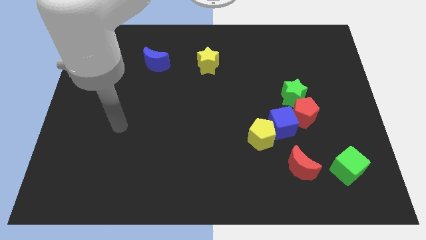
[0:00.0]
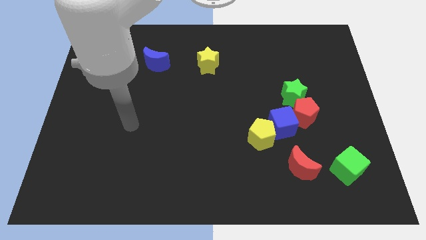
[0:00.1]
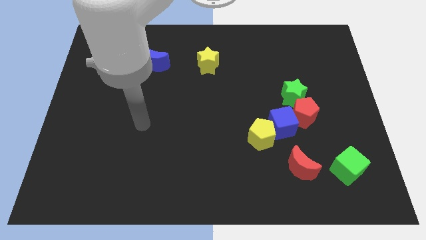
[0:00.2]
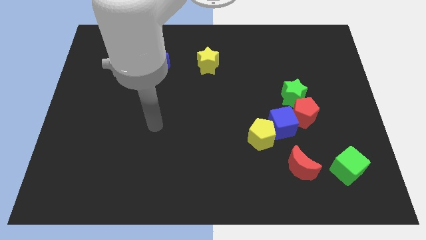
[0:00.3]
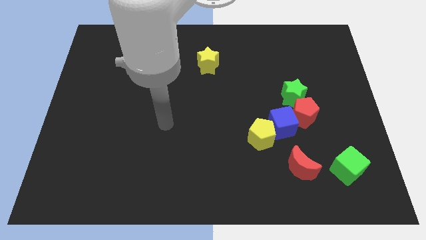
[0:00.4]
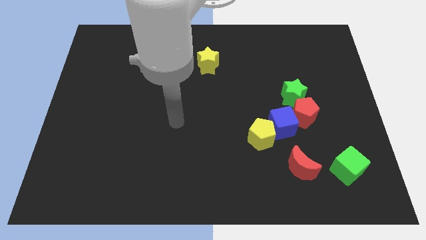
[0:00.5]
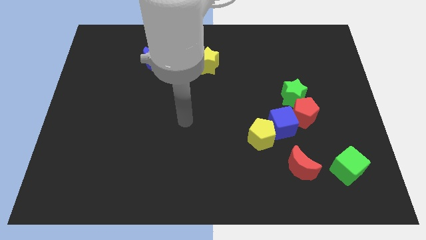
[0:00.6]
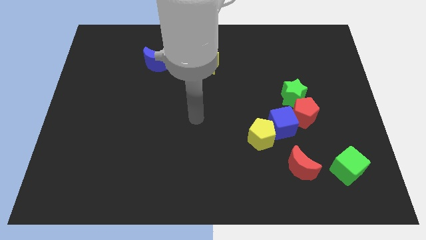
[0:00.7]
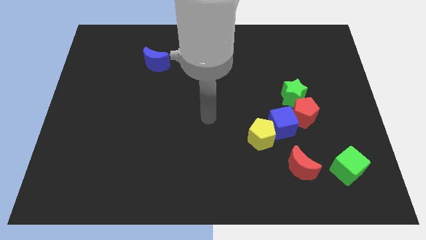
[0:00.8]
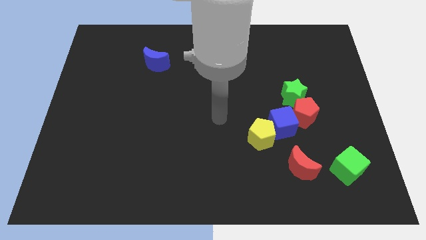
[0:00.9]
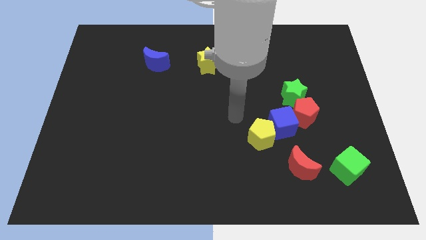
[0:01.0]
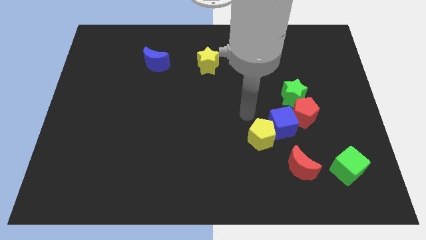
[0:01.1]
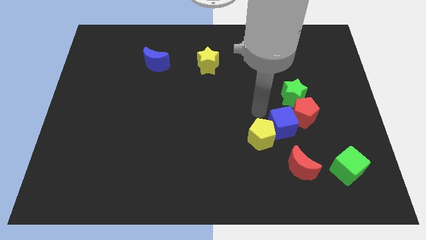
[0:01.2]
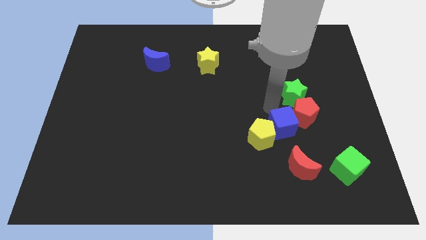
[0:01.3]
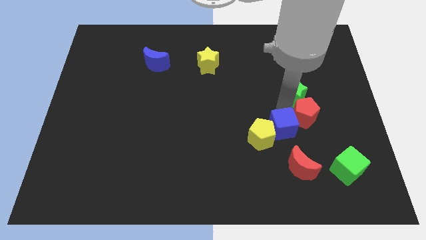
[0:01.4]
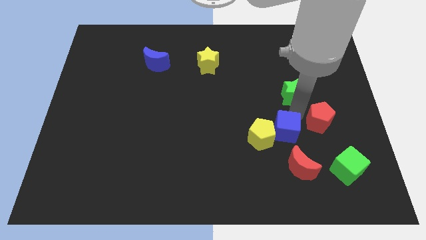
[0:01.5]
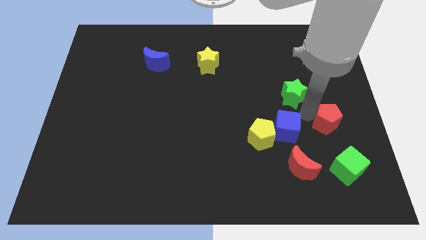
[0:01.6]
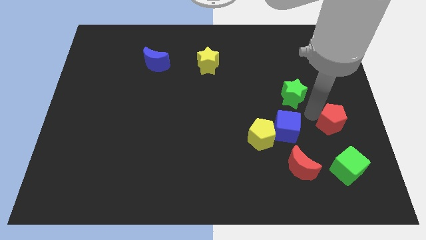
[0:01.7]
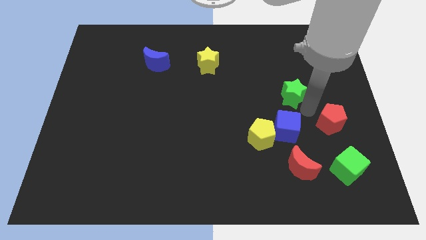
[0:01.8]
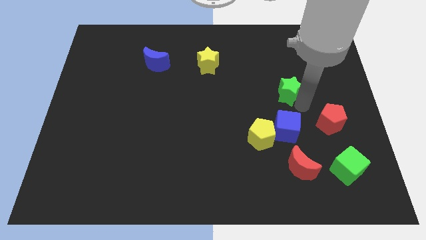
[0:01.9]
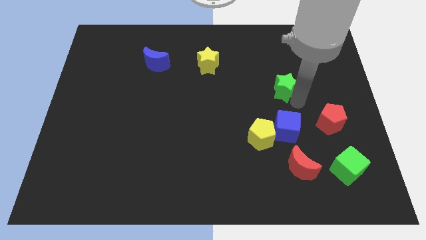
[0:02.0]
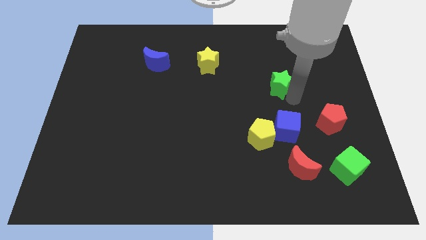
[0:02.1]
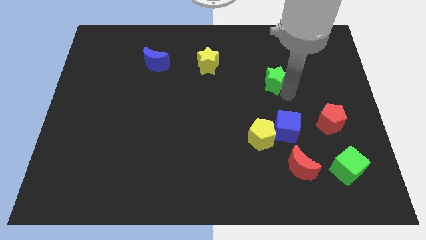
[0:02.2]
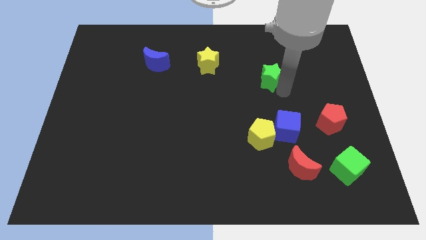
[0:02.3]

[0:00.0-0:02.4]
move the green star up and left a little bit

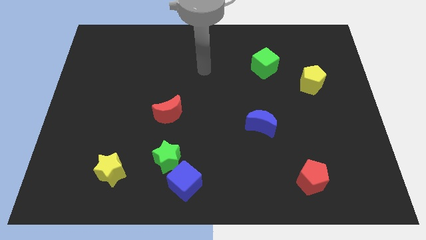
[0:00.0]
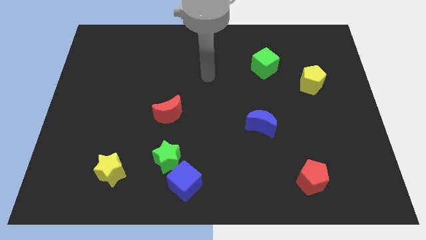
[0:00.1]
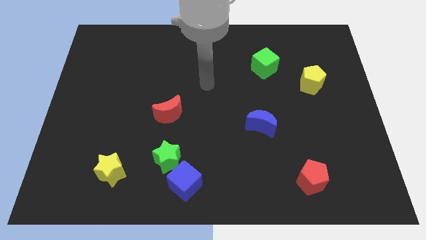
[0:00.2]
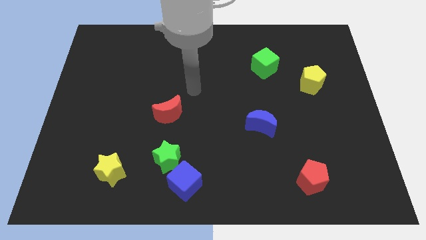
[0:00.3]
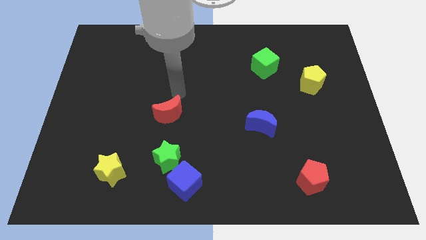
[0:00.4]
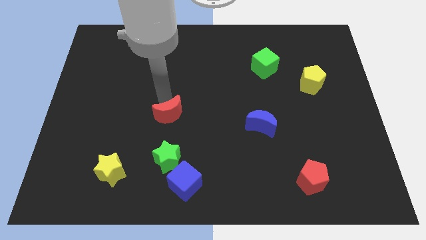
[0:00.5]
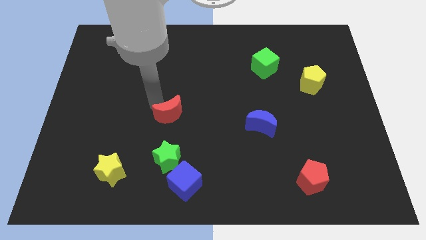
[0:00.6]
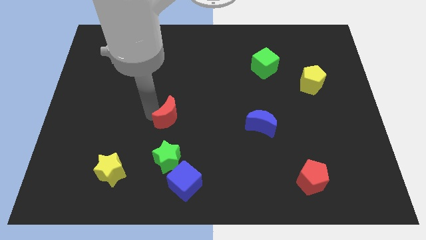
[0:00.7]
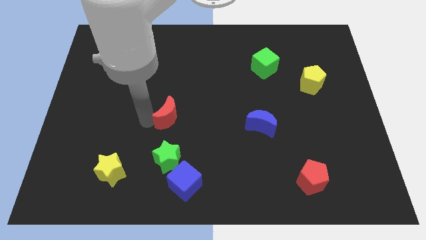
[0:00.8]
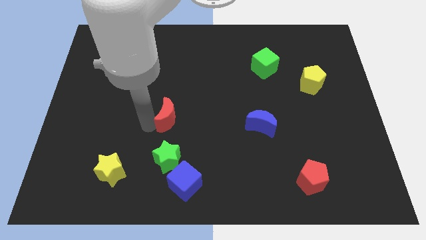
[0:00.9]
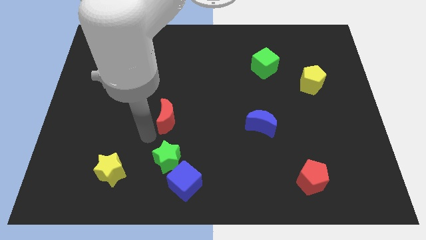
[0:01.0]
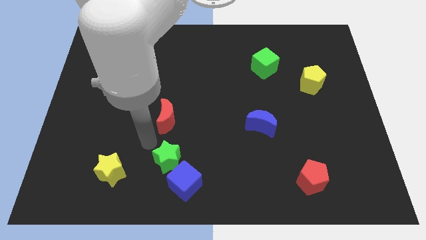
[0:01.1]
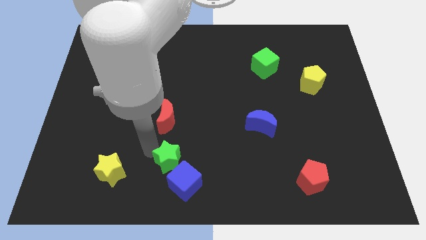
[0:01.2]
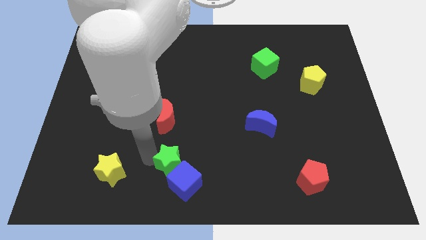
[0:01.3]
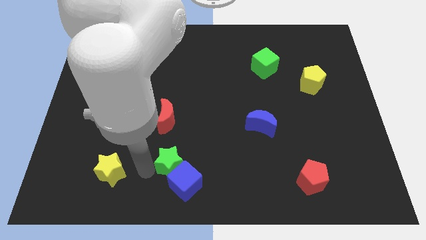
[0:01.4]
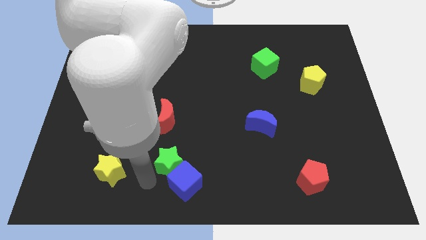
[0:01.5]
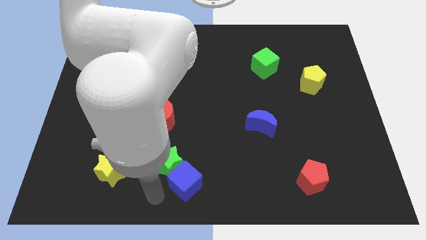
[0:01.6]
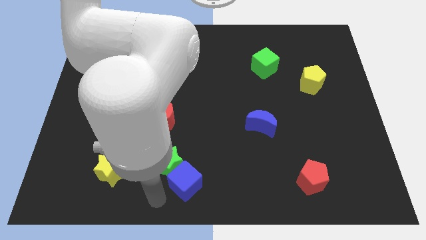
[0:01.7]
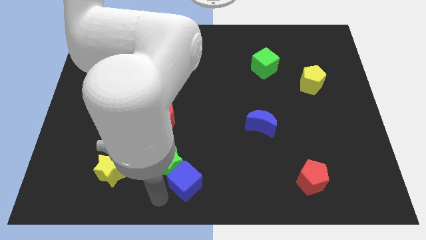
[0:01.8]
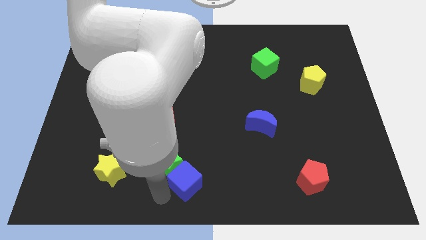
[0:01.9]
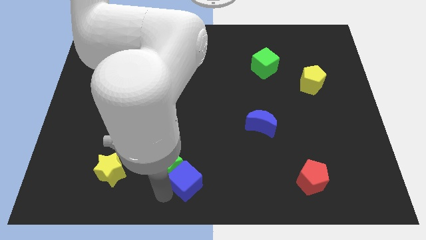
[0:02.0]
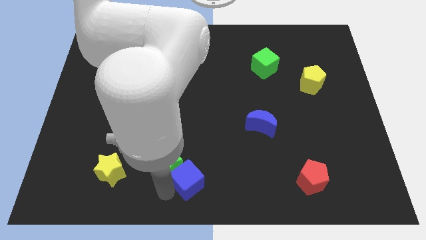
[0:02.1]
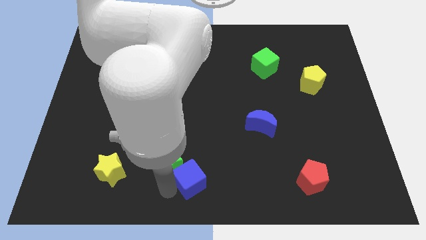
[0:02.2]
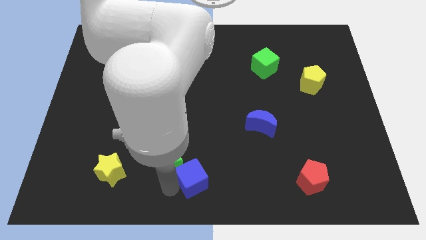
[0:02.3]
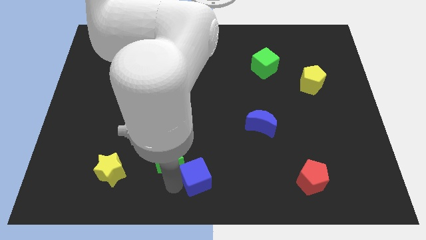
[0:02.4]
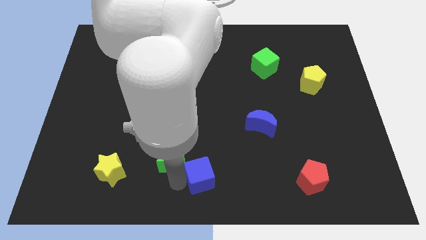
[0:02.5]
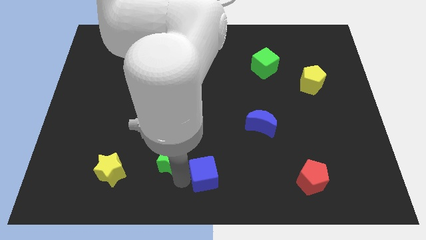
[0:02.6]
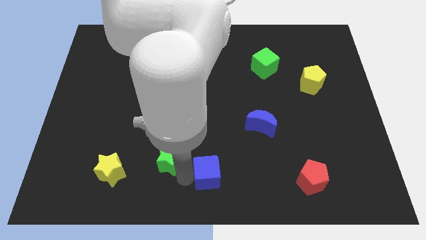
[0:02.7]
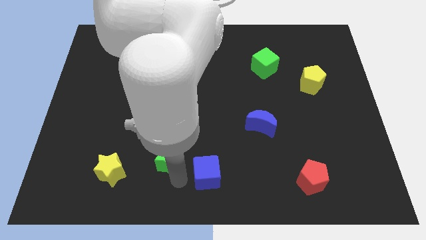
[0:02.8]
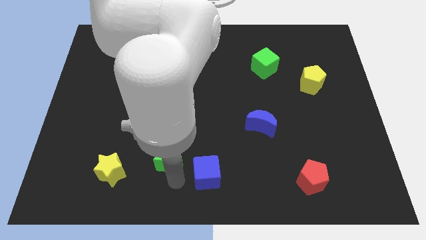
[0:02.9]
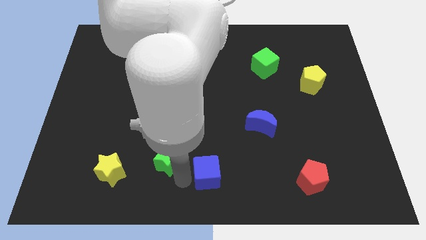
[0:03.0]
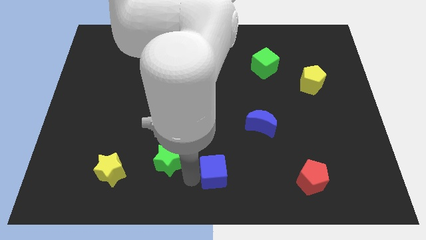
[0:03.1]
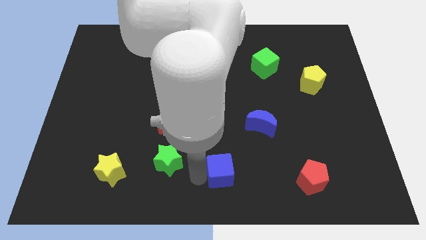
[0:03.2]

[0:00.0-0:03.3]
slightly slide the blue cube to the right

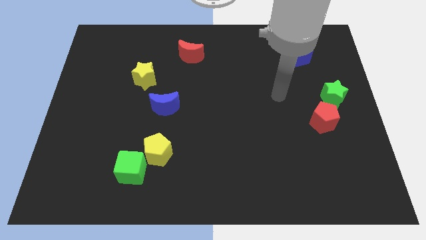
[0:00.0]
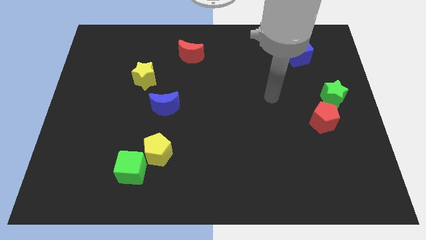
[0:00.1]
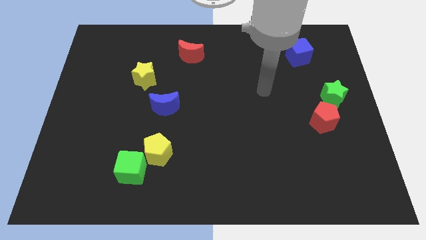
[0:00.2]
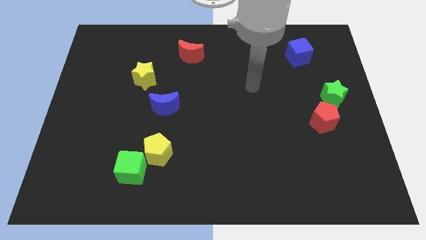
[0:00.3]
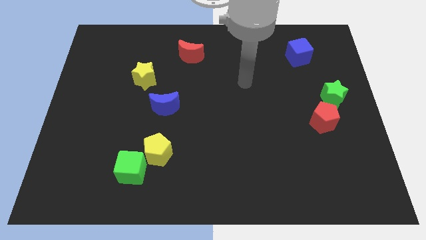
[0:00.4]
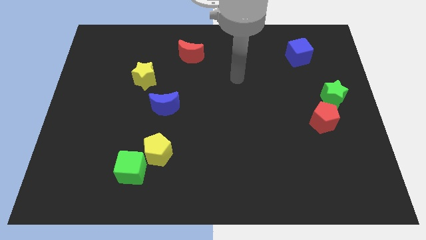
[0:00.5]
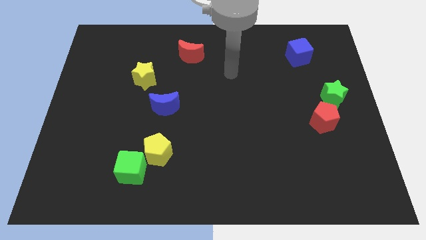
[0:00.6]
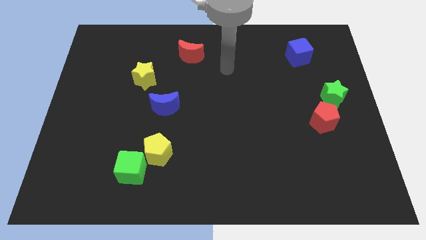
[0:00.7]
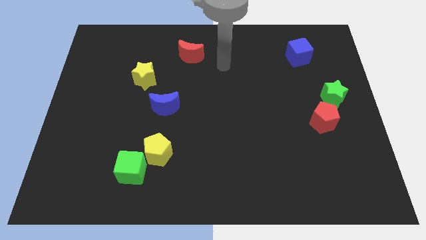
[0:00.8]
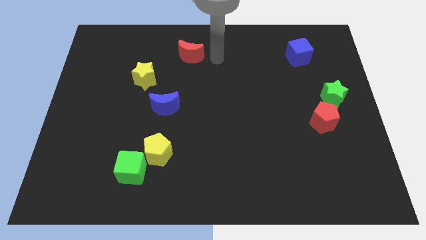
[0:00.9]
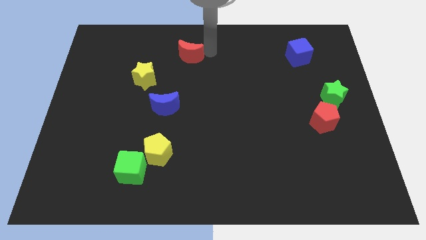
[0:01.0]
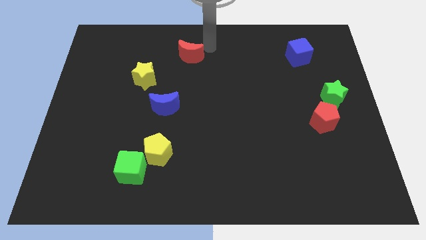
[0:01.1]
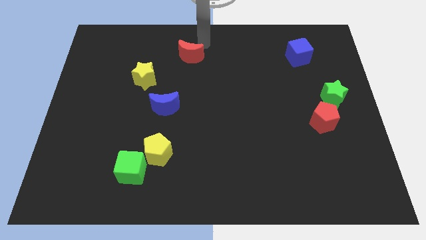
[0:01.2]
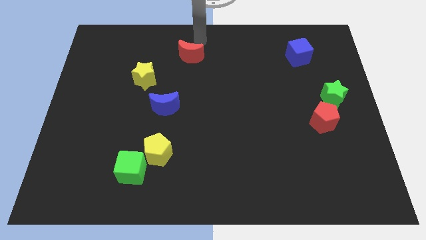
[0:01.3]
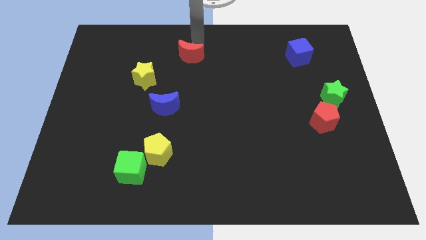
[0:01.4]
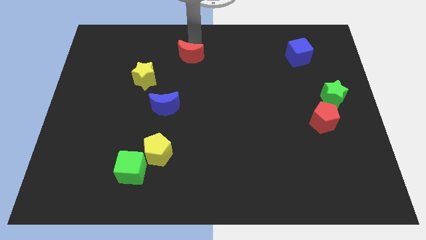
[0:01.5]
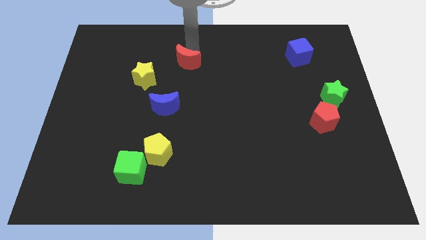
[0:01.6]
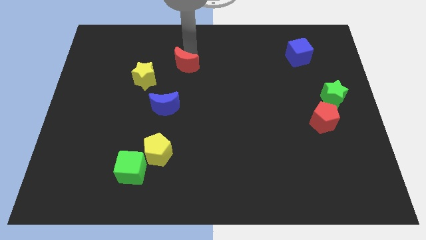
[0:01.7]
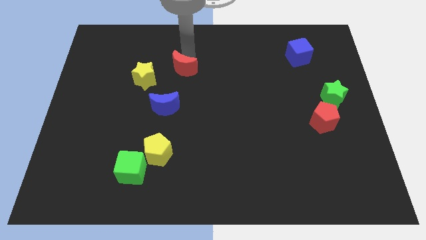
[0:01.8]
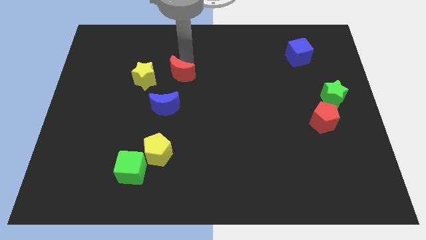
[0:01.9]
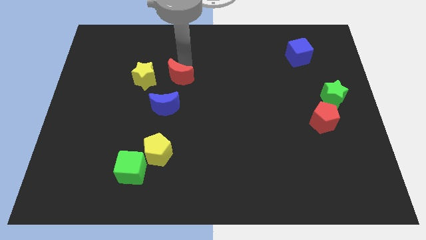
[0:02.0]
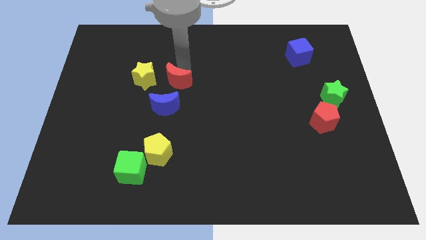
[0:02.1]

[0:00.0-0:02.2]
slide the red moon down and to the left diagonally slightly
